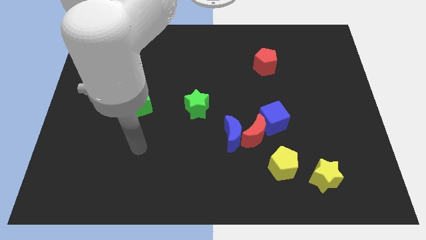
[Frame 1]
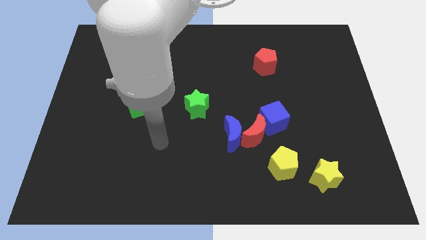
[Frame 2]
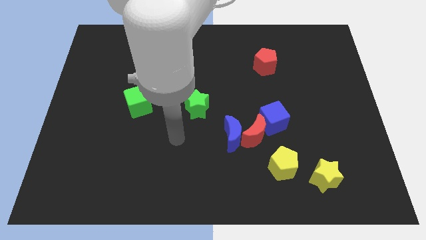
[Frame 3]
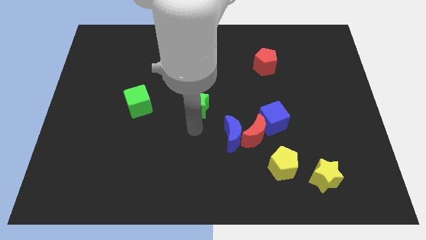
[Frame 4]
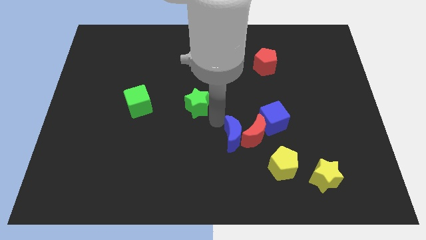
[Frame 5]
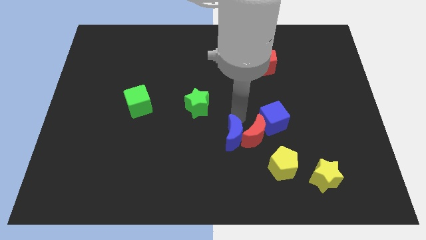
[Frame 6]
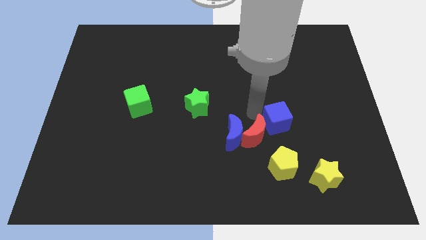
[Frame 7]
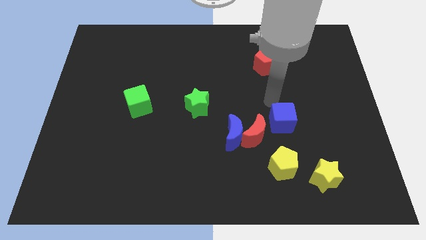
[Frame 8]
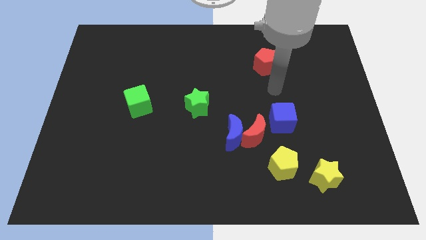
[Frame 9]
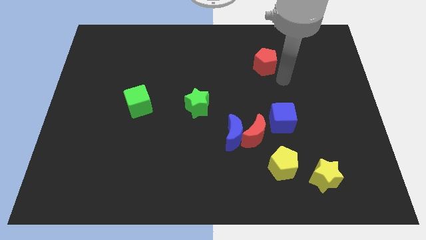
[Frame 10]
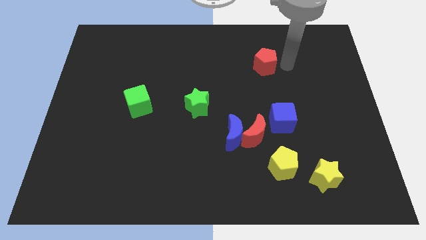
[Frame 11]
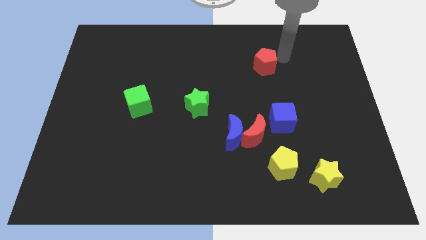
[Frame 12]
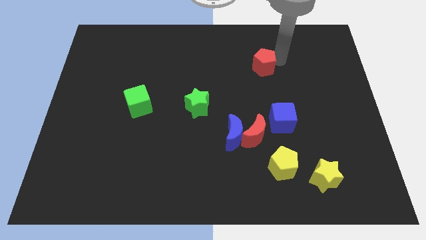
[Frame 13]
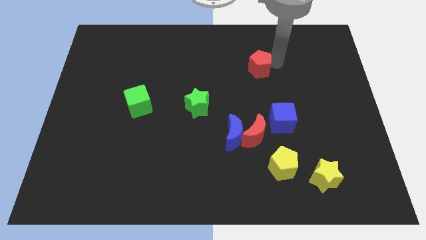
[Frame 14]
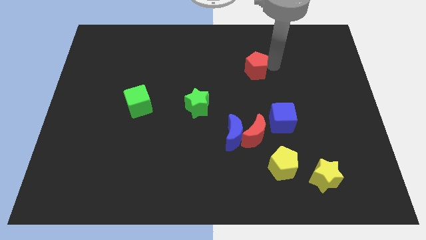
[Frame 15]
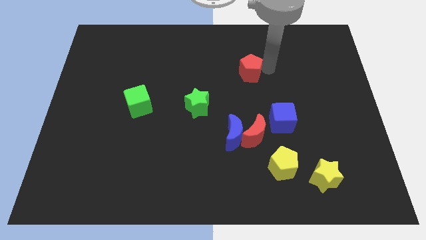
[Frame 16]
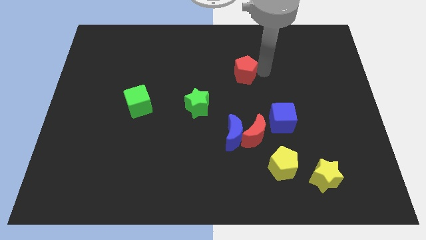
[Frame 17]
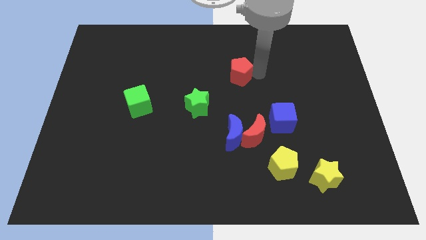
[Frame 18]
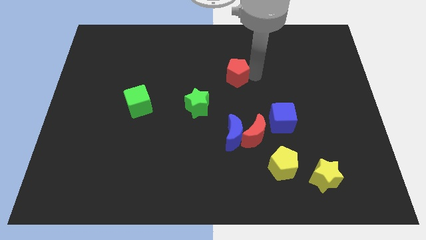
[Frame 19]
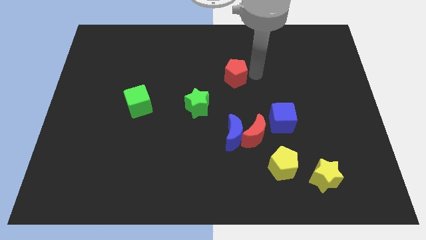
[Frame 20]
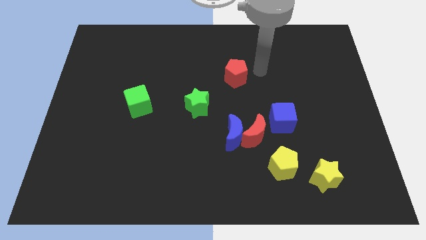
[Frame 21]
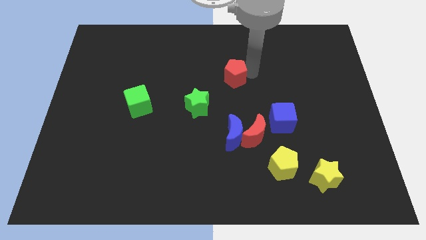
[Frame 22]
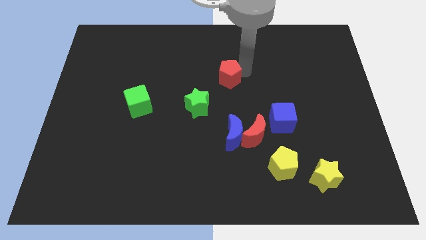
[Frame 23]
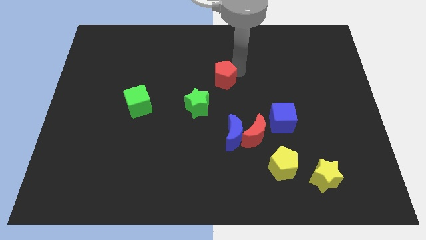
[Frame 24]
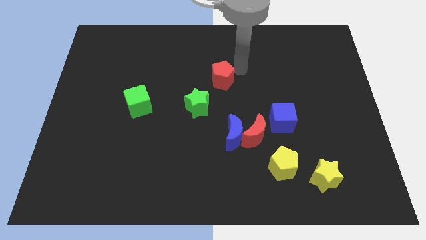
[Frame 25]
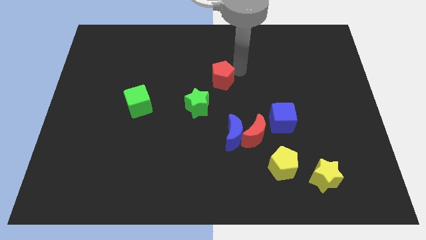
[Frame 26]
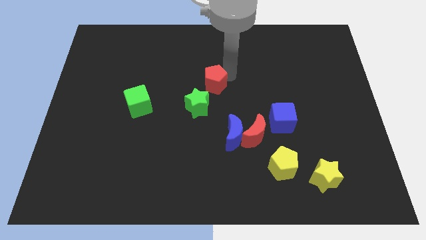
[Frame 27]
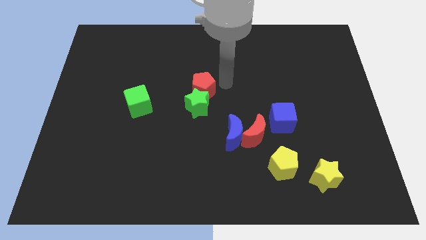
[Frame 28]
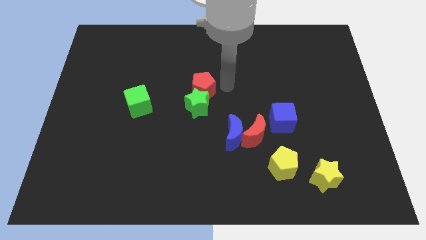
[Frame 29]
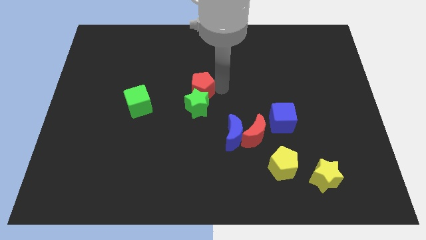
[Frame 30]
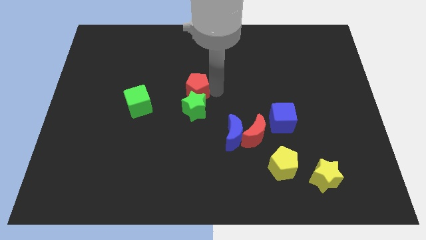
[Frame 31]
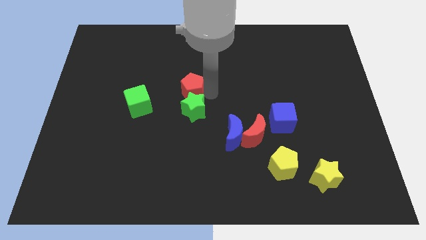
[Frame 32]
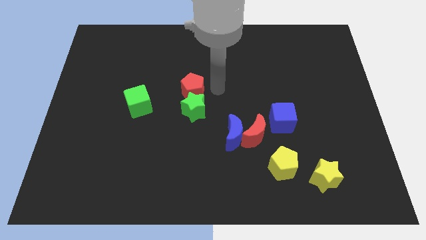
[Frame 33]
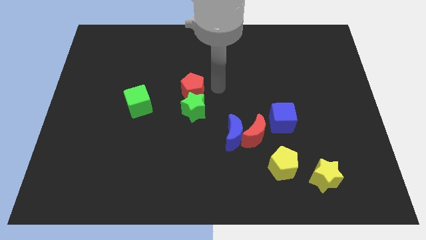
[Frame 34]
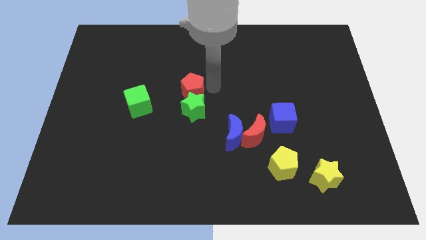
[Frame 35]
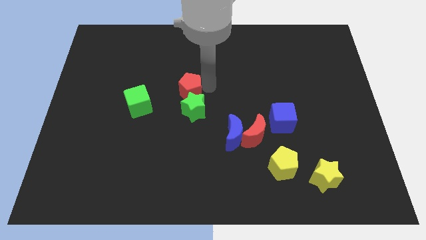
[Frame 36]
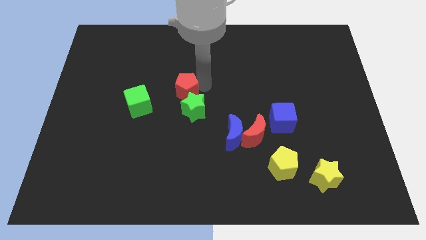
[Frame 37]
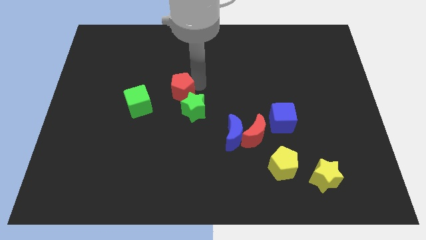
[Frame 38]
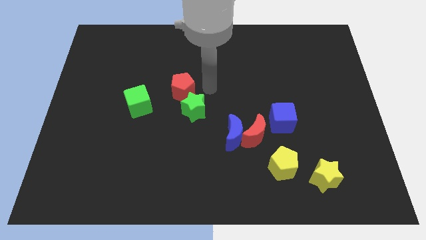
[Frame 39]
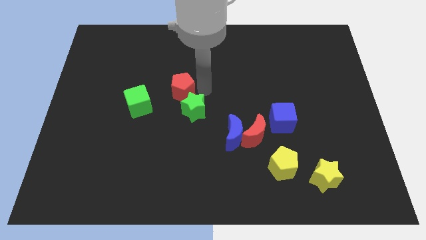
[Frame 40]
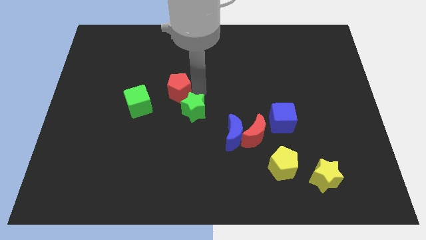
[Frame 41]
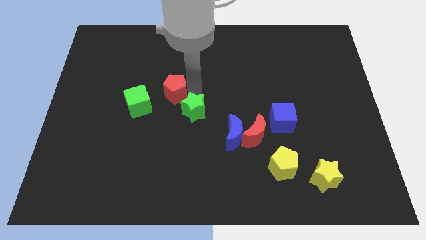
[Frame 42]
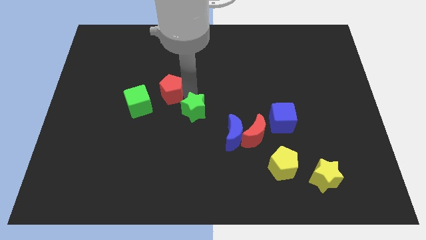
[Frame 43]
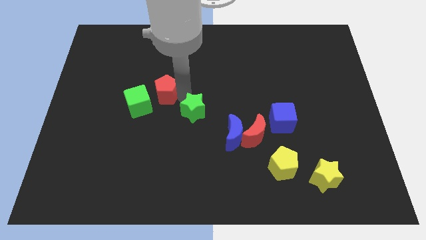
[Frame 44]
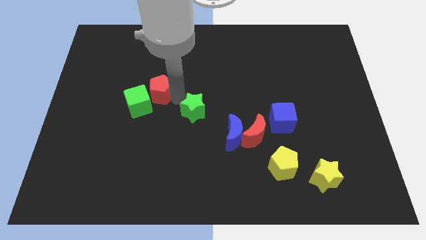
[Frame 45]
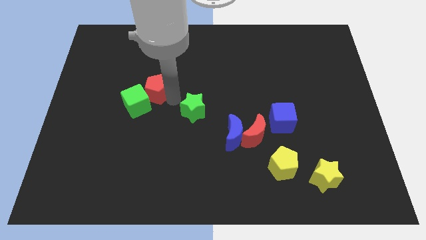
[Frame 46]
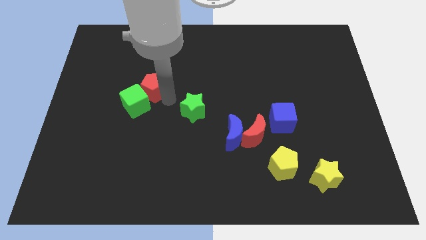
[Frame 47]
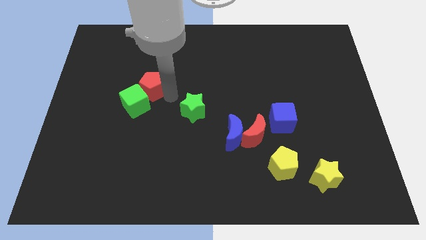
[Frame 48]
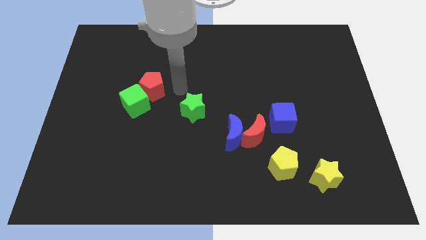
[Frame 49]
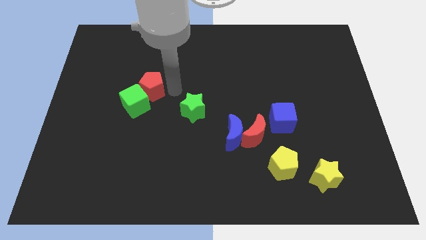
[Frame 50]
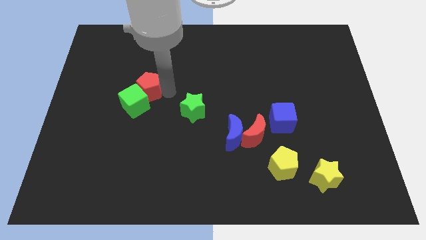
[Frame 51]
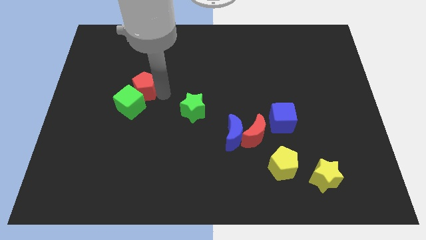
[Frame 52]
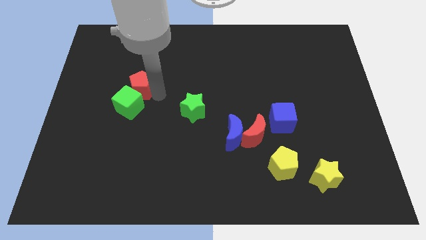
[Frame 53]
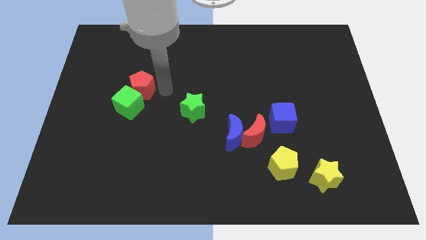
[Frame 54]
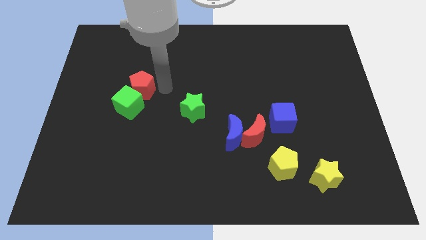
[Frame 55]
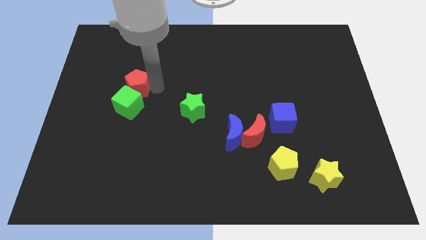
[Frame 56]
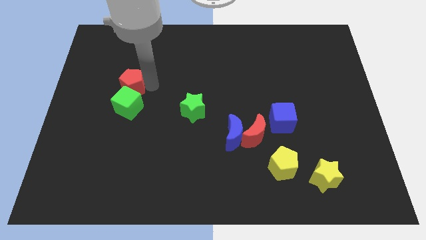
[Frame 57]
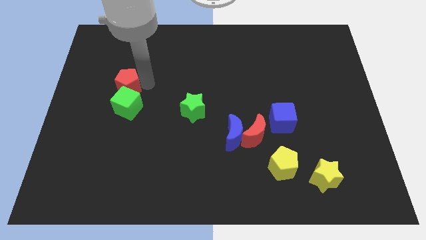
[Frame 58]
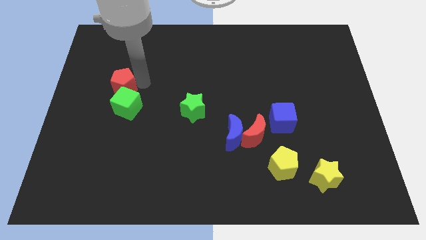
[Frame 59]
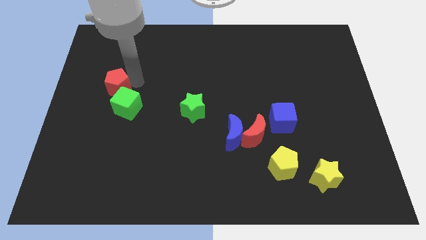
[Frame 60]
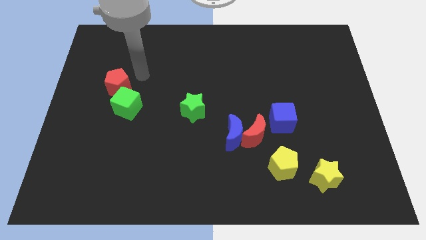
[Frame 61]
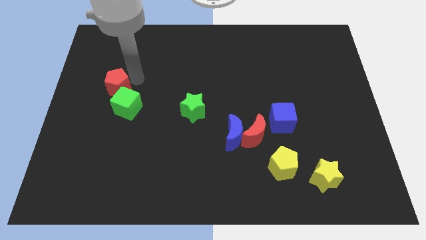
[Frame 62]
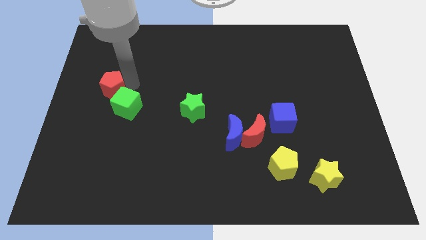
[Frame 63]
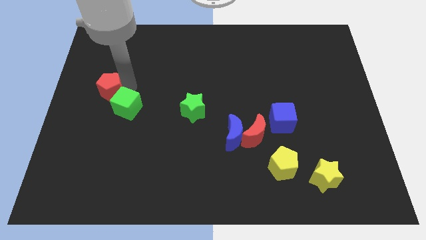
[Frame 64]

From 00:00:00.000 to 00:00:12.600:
put the red pentagon to the left of the green cube

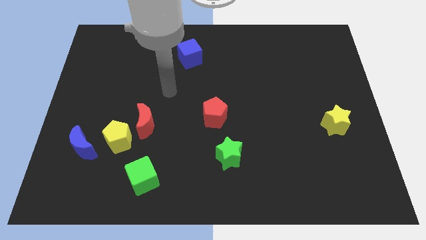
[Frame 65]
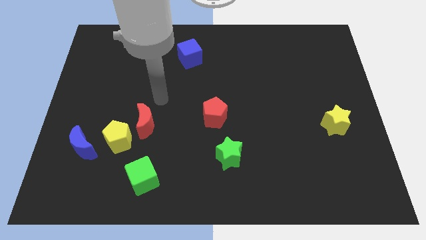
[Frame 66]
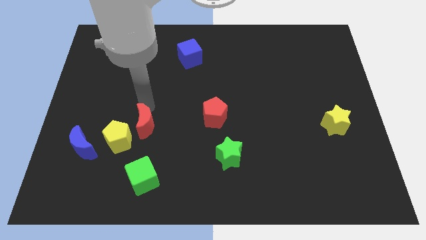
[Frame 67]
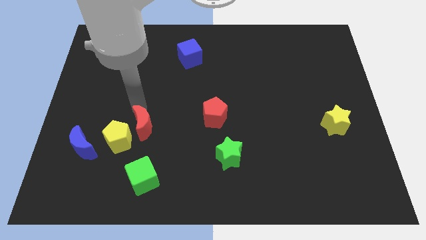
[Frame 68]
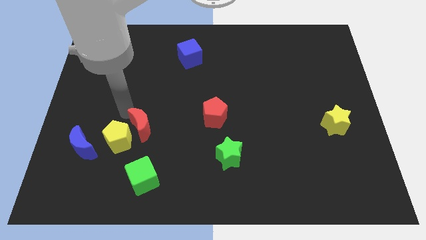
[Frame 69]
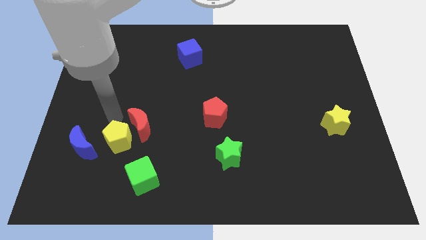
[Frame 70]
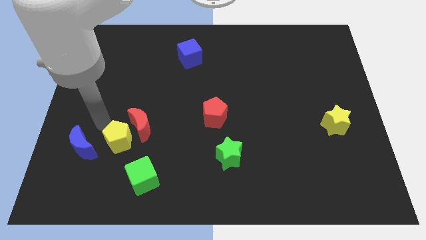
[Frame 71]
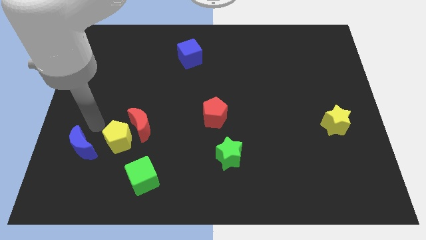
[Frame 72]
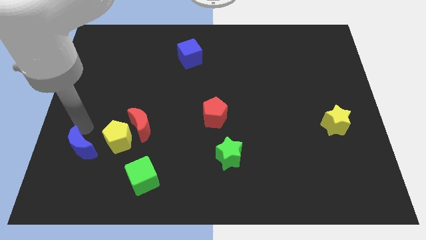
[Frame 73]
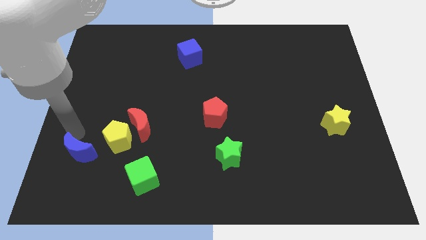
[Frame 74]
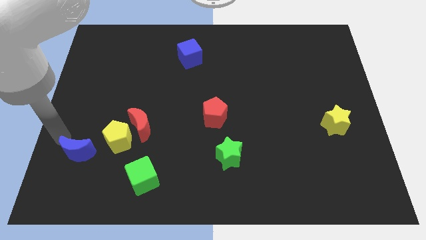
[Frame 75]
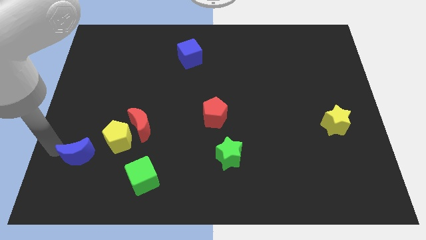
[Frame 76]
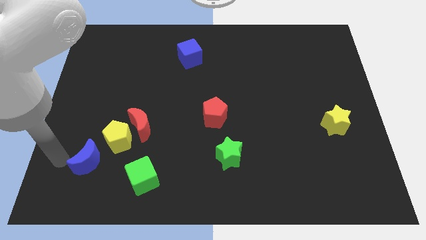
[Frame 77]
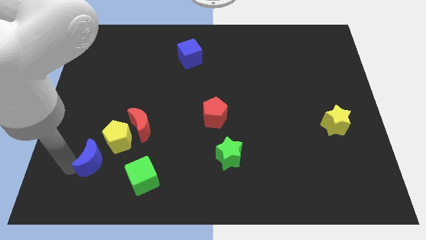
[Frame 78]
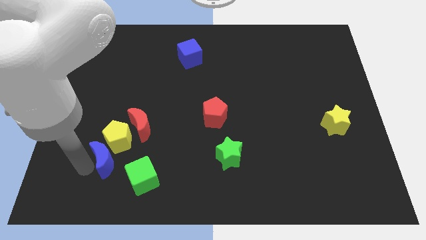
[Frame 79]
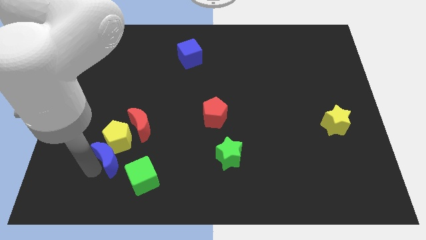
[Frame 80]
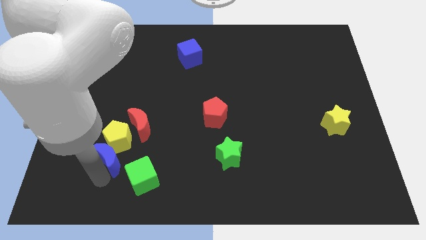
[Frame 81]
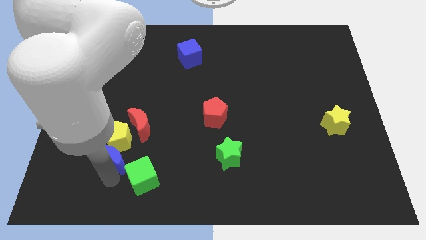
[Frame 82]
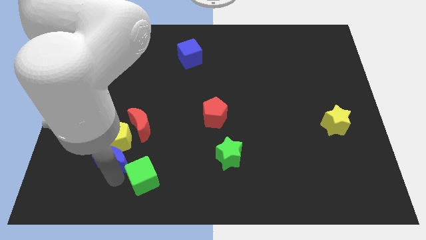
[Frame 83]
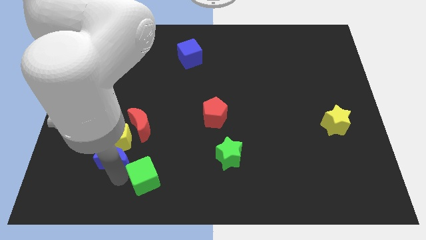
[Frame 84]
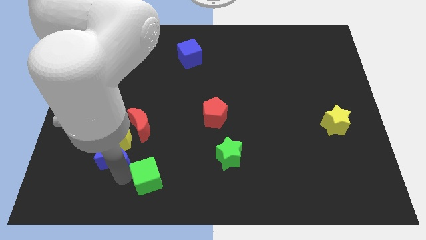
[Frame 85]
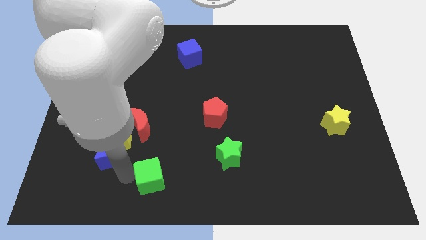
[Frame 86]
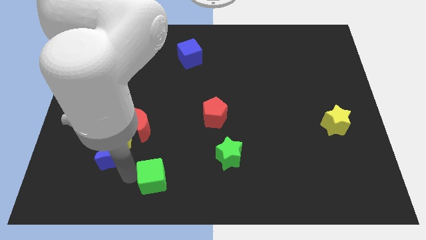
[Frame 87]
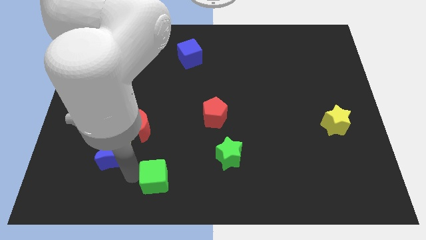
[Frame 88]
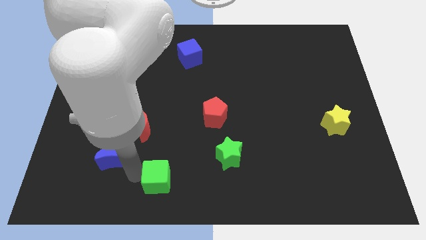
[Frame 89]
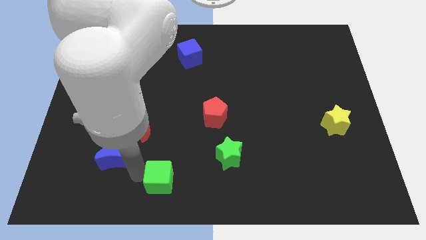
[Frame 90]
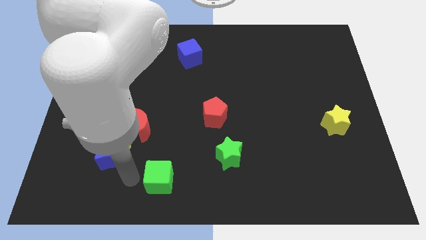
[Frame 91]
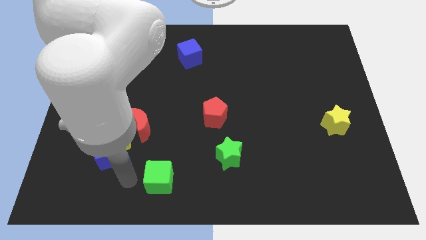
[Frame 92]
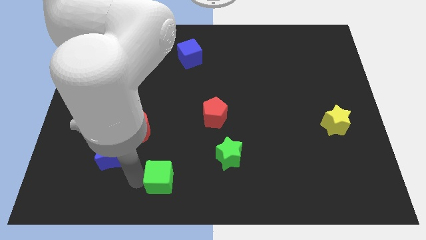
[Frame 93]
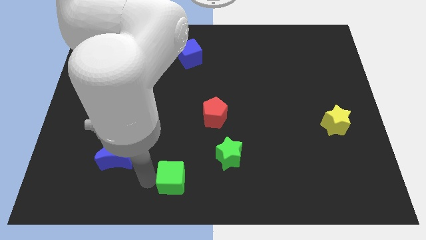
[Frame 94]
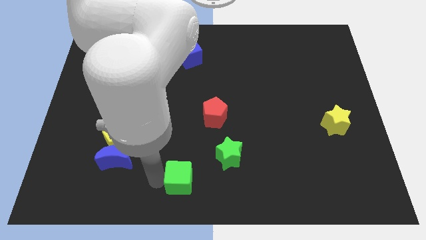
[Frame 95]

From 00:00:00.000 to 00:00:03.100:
slide the green cube diagonally down and to the left of the green star
